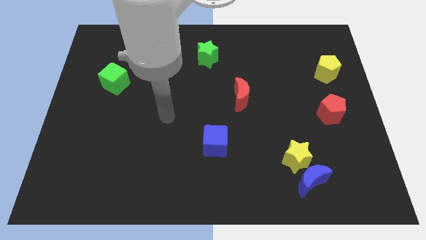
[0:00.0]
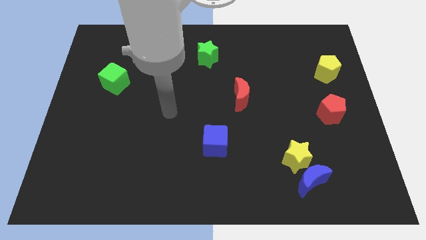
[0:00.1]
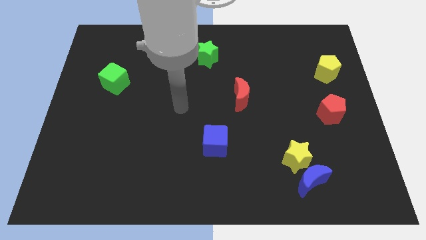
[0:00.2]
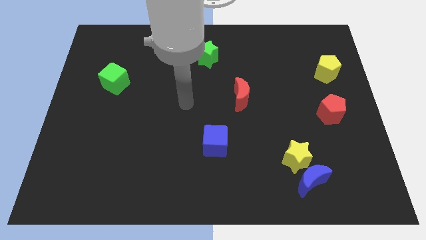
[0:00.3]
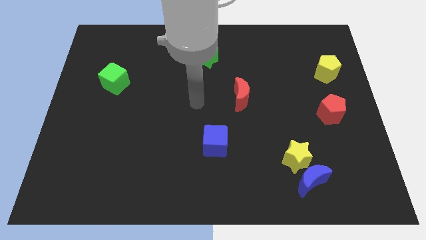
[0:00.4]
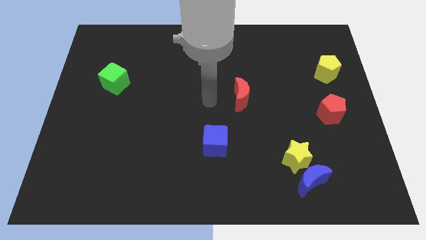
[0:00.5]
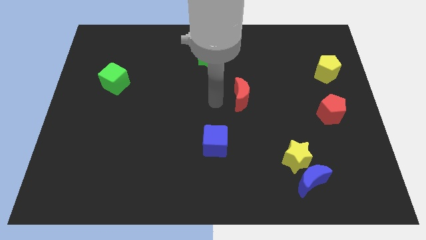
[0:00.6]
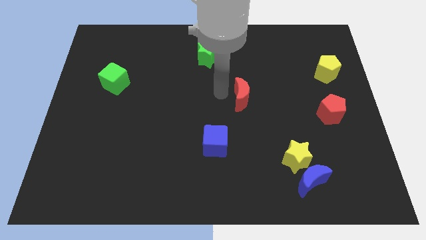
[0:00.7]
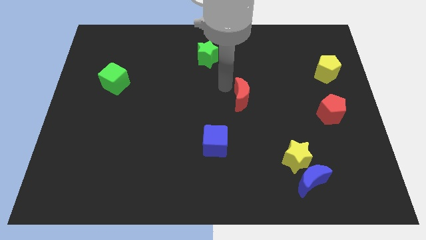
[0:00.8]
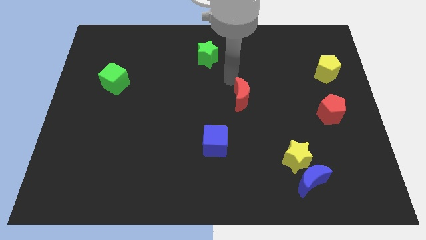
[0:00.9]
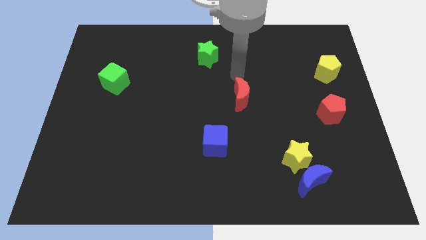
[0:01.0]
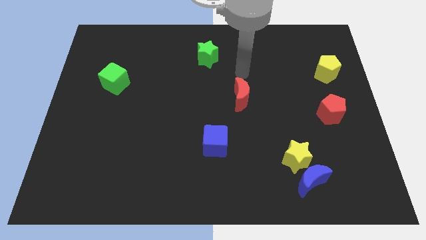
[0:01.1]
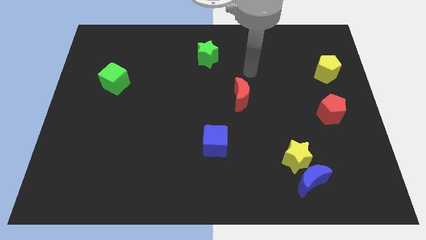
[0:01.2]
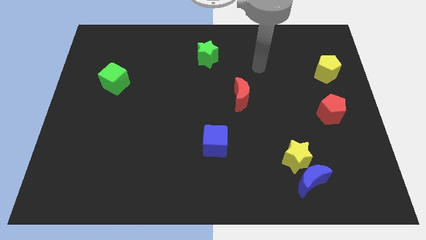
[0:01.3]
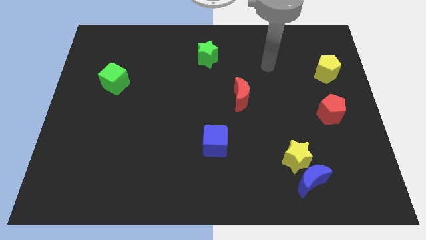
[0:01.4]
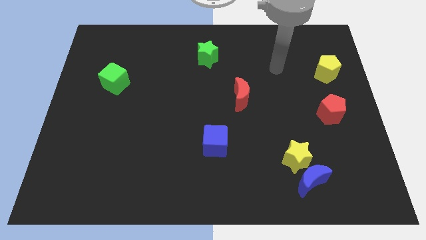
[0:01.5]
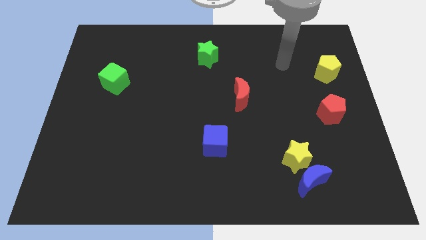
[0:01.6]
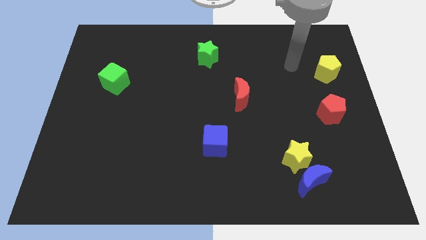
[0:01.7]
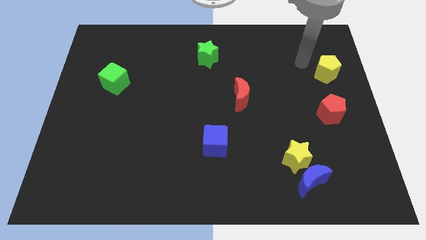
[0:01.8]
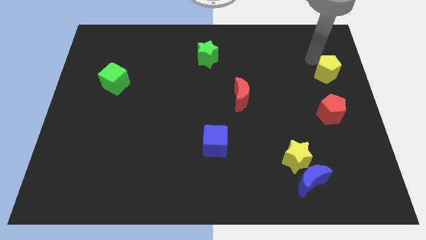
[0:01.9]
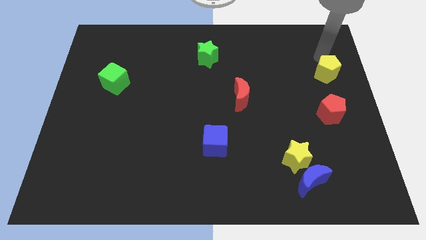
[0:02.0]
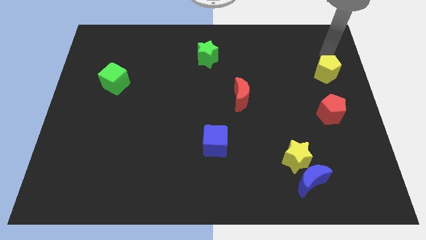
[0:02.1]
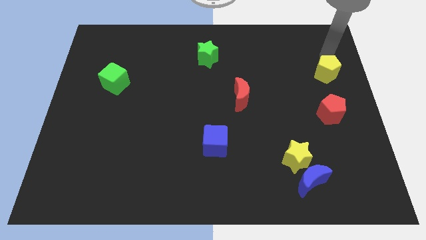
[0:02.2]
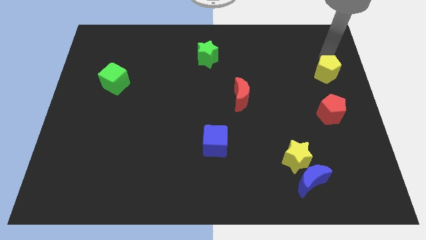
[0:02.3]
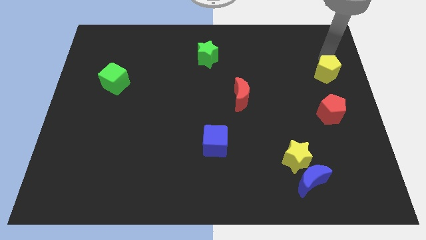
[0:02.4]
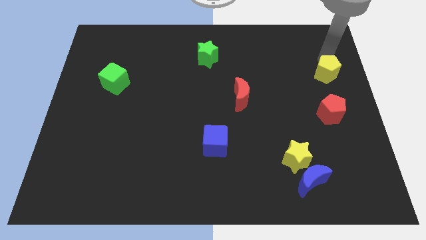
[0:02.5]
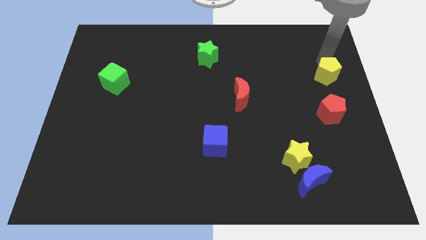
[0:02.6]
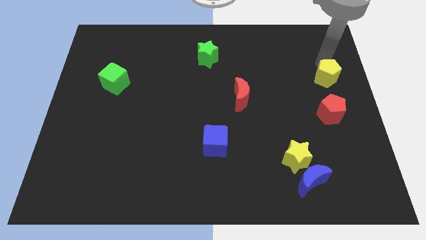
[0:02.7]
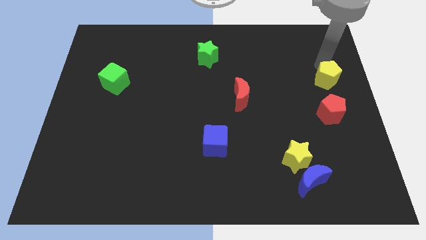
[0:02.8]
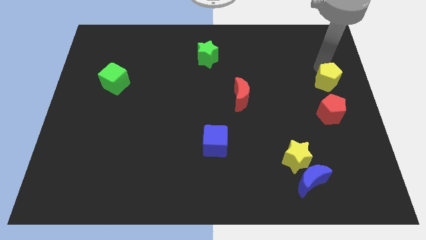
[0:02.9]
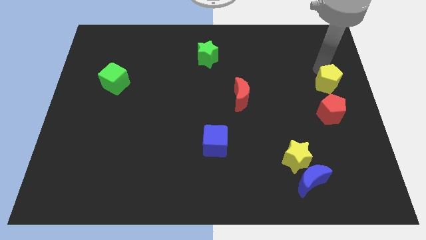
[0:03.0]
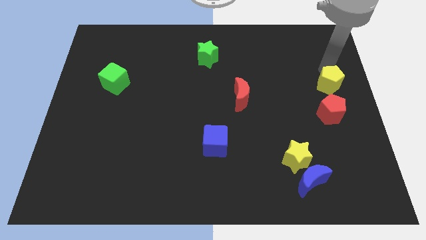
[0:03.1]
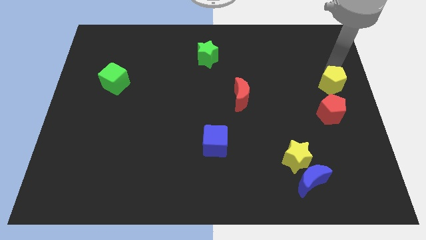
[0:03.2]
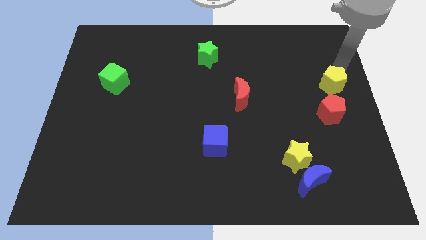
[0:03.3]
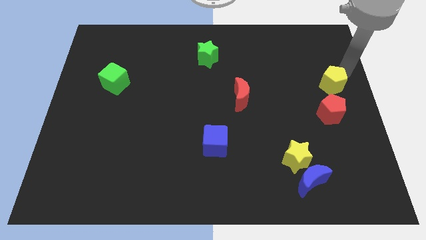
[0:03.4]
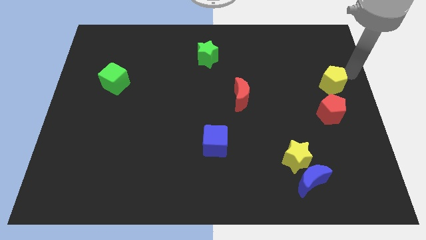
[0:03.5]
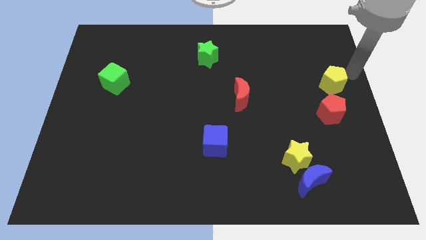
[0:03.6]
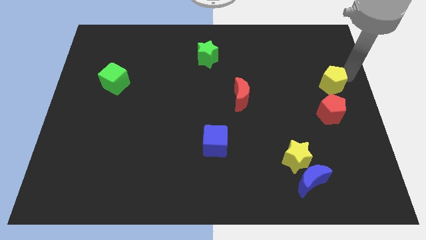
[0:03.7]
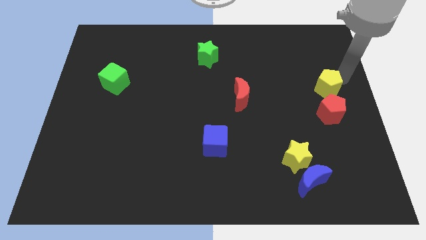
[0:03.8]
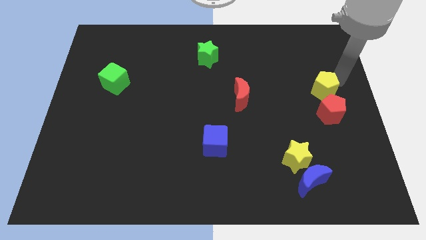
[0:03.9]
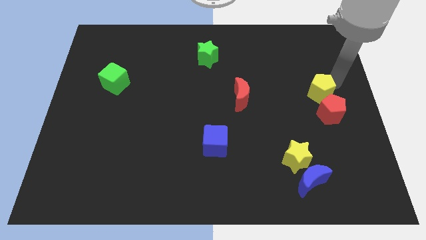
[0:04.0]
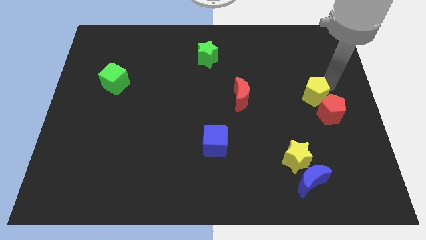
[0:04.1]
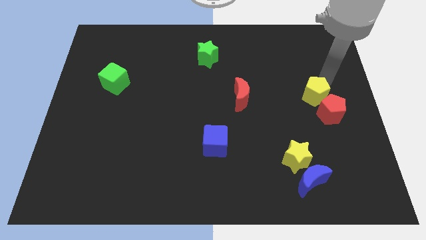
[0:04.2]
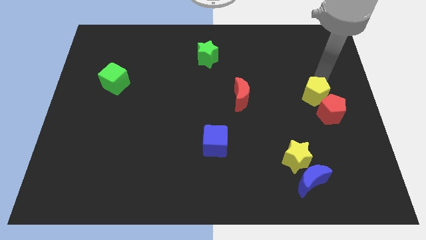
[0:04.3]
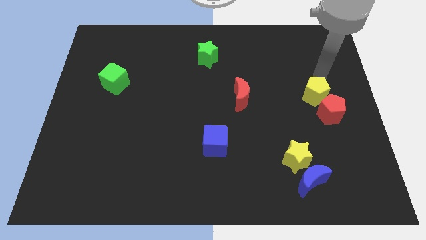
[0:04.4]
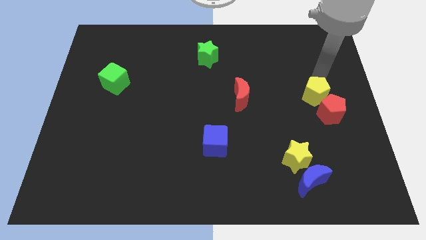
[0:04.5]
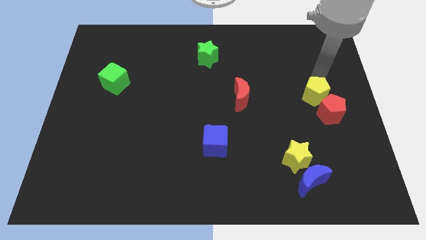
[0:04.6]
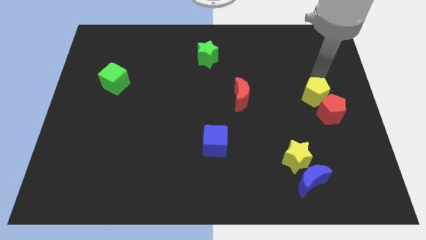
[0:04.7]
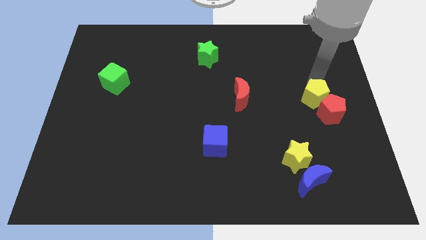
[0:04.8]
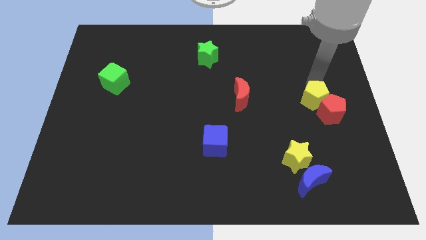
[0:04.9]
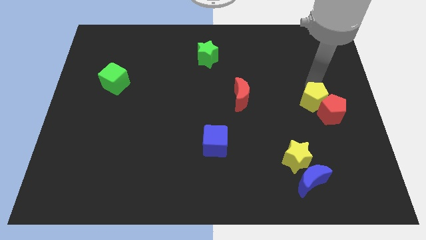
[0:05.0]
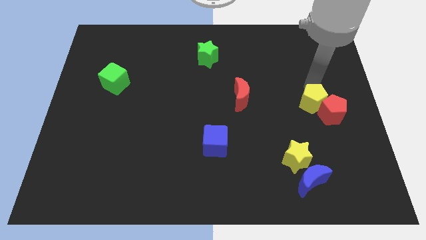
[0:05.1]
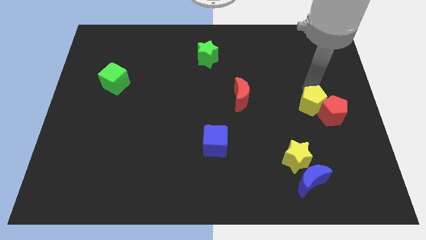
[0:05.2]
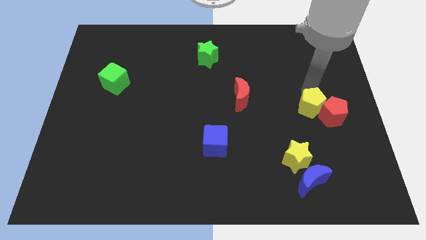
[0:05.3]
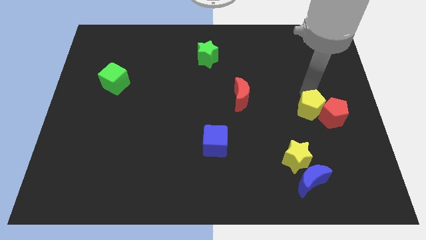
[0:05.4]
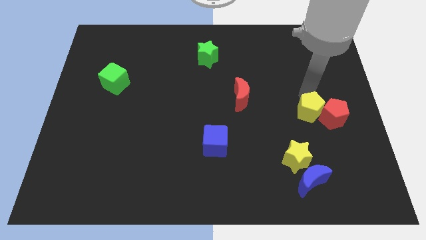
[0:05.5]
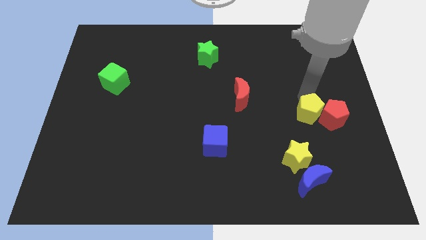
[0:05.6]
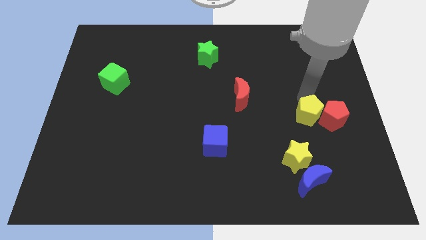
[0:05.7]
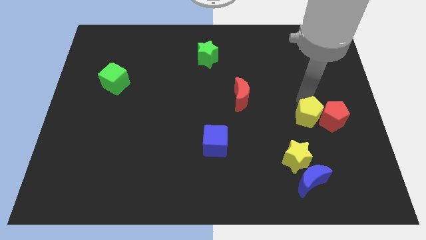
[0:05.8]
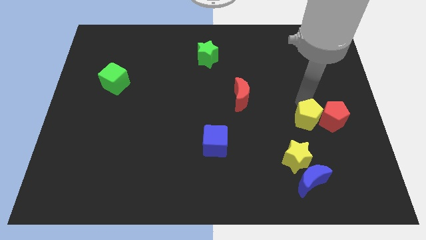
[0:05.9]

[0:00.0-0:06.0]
push the yellow pentagon above the blue moon

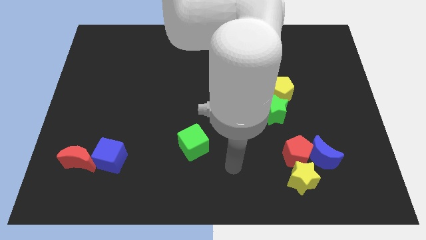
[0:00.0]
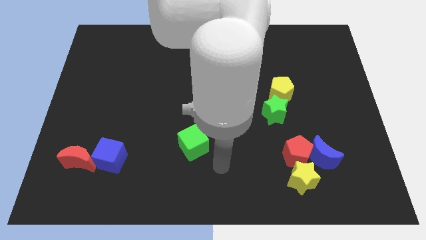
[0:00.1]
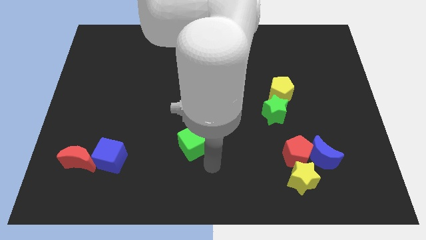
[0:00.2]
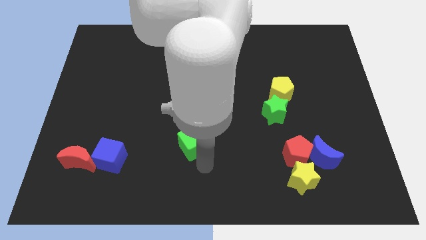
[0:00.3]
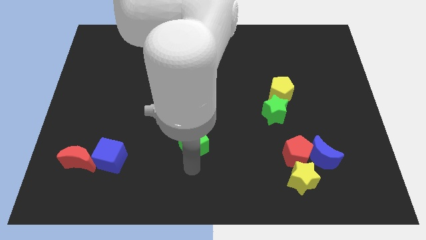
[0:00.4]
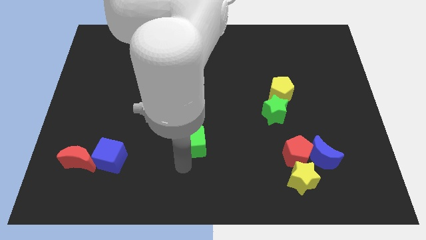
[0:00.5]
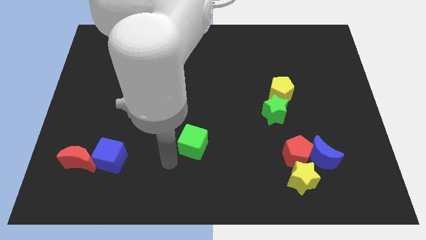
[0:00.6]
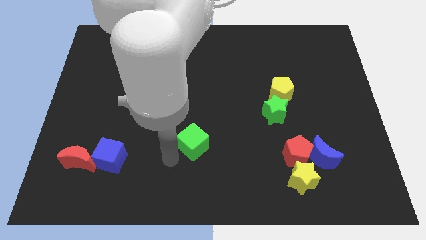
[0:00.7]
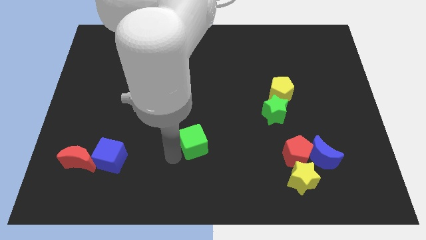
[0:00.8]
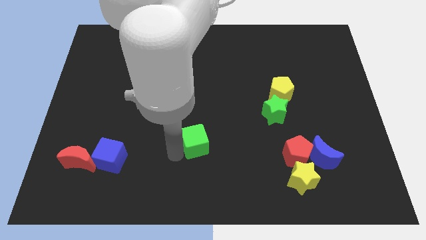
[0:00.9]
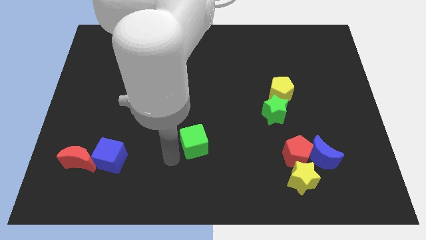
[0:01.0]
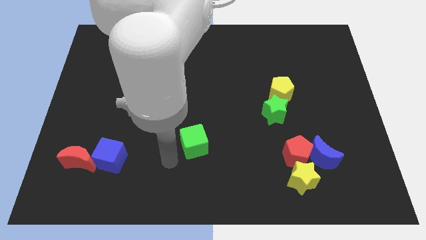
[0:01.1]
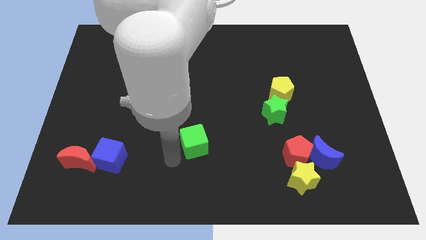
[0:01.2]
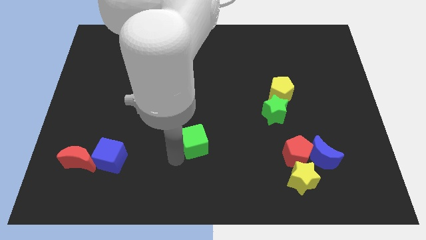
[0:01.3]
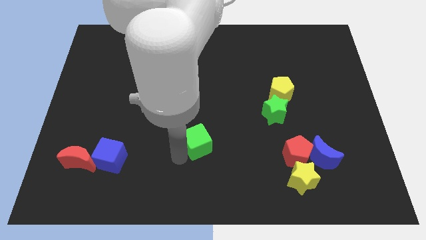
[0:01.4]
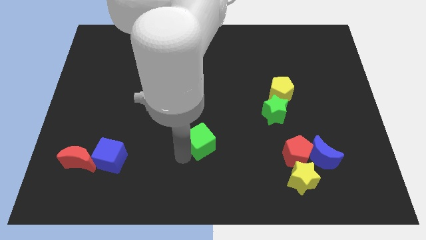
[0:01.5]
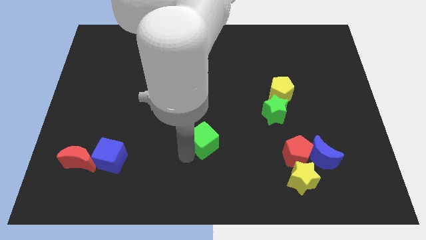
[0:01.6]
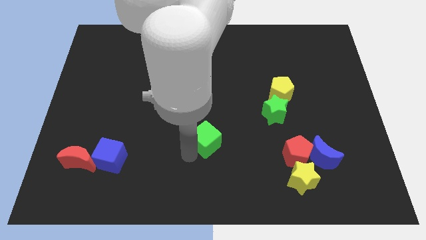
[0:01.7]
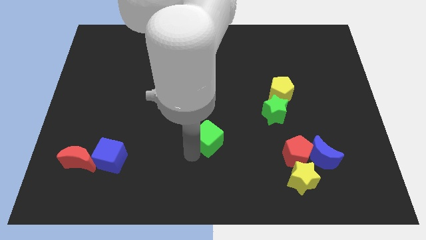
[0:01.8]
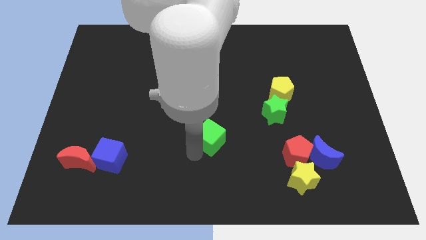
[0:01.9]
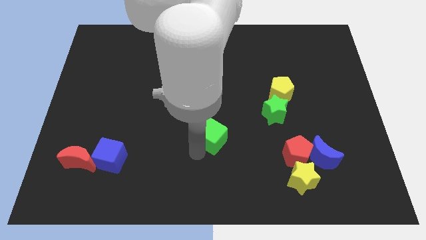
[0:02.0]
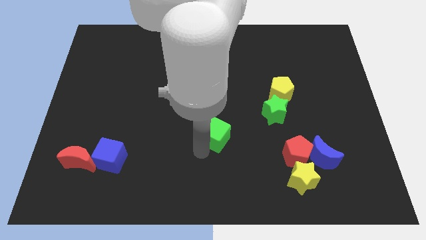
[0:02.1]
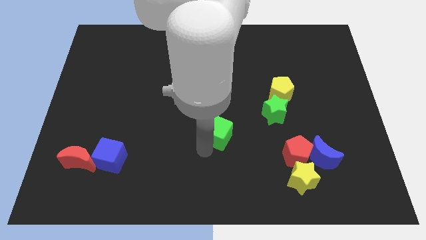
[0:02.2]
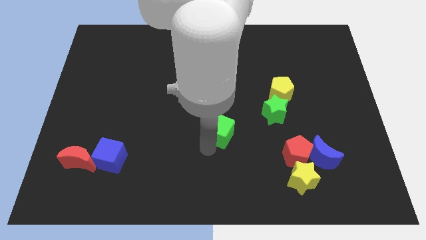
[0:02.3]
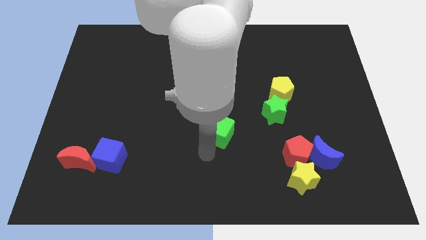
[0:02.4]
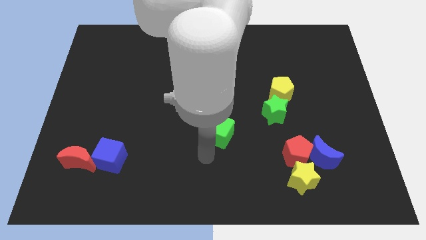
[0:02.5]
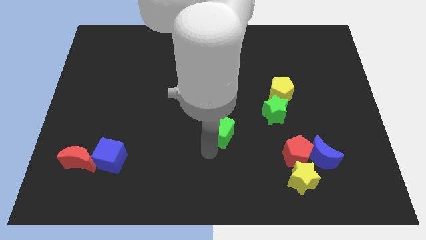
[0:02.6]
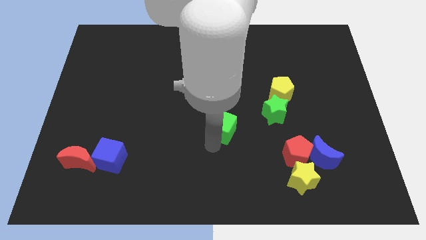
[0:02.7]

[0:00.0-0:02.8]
move the green cube to the left of the green star
